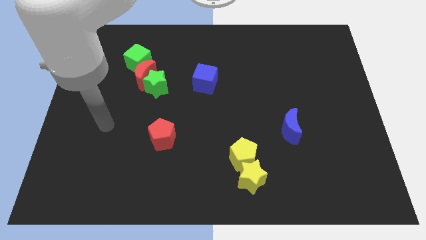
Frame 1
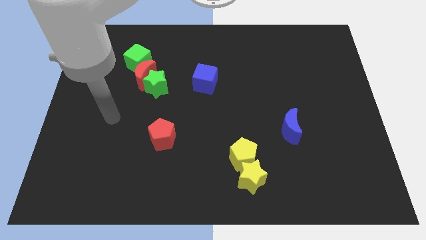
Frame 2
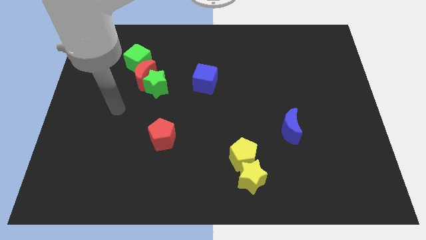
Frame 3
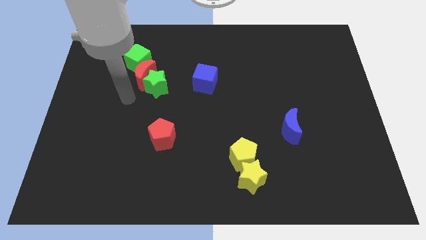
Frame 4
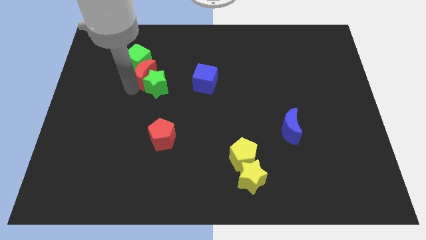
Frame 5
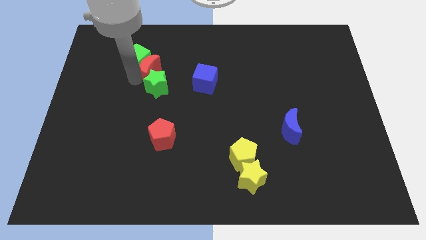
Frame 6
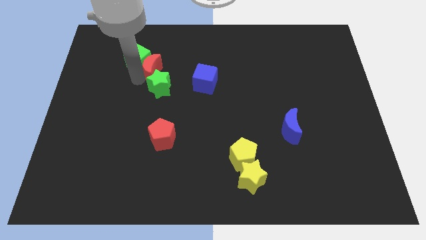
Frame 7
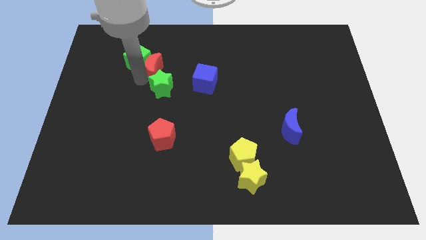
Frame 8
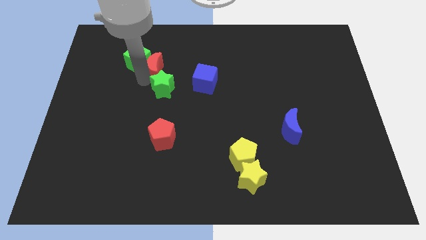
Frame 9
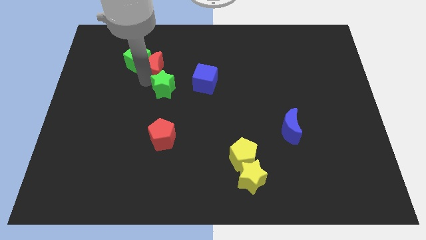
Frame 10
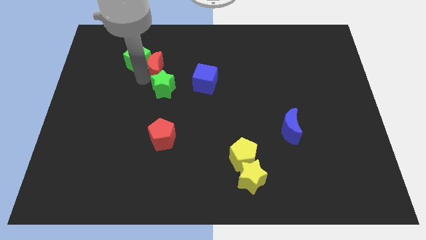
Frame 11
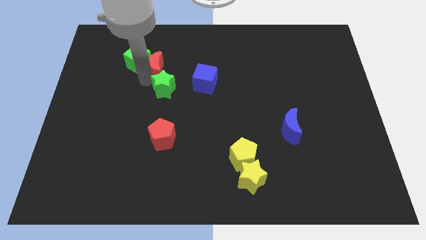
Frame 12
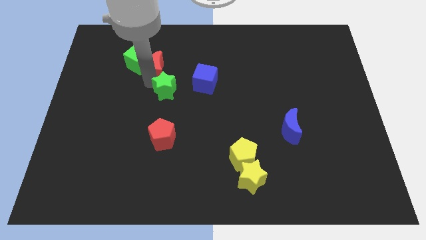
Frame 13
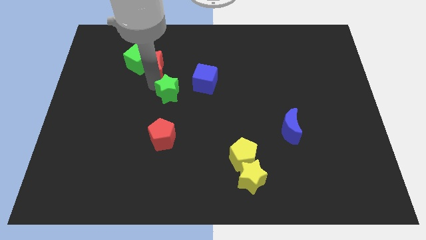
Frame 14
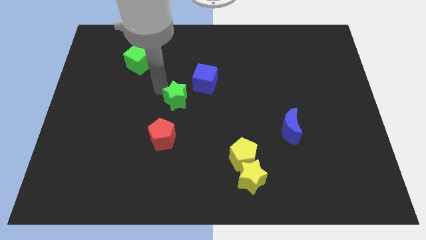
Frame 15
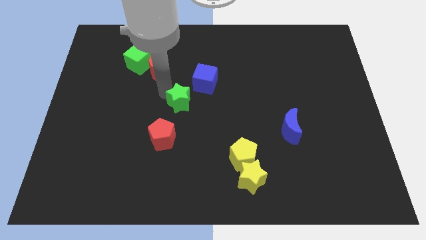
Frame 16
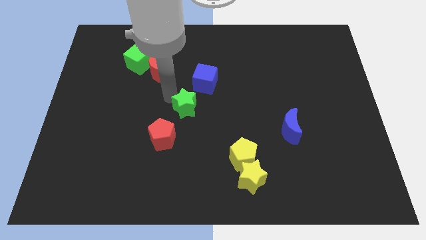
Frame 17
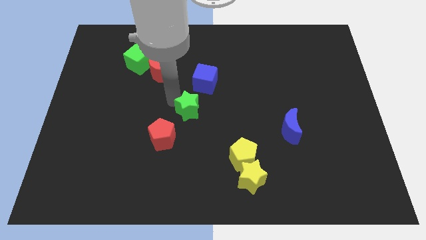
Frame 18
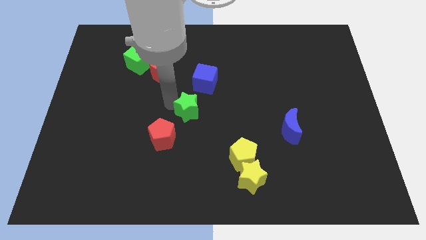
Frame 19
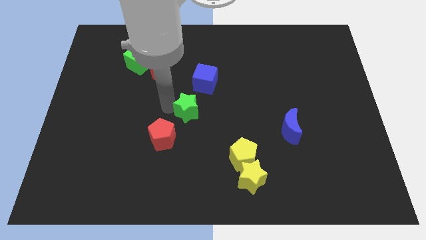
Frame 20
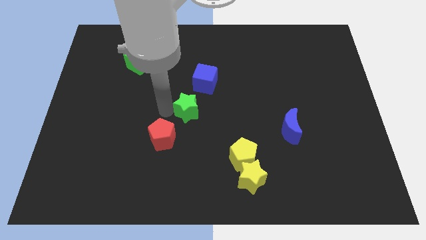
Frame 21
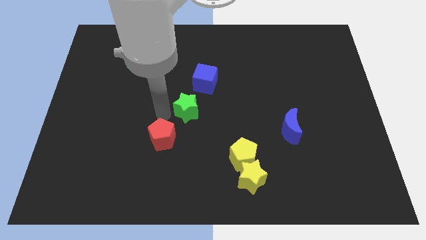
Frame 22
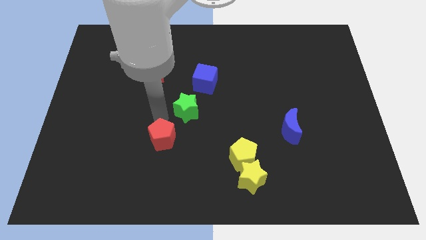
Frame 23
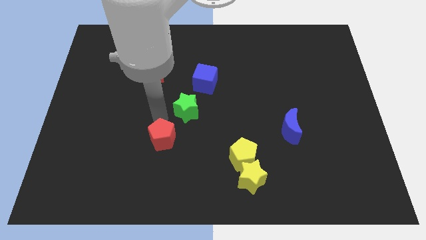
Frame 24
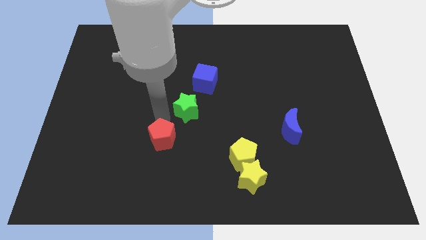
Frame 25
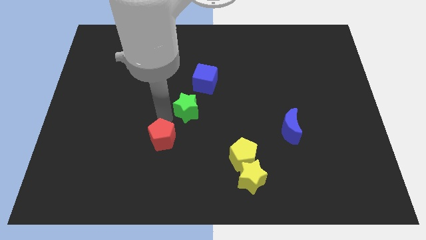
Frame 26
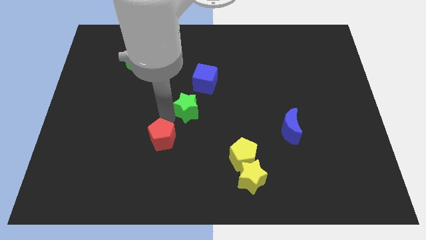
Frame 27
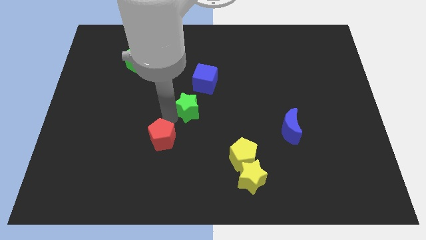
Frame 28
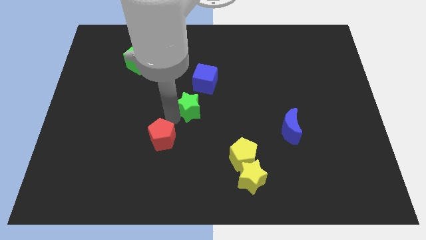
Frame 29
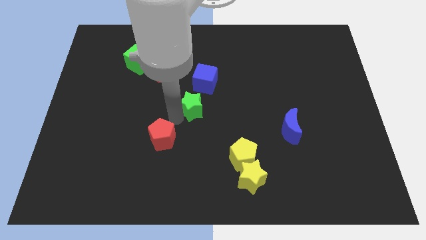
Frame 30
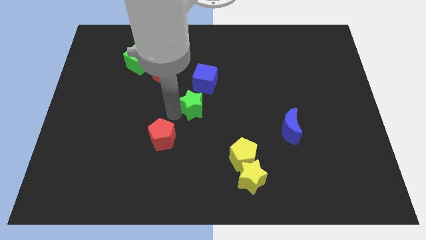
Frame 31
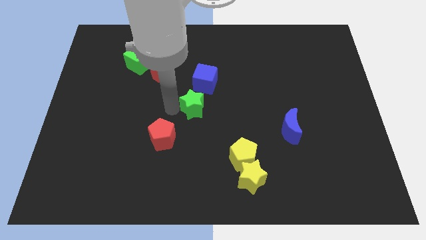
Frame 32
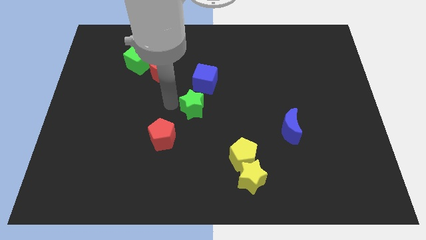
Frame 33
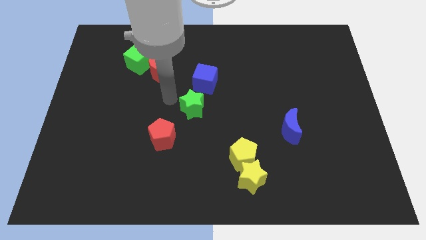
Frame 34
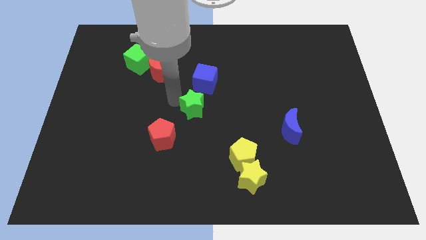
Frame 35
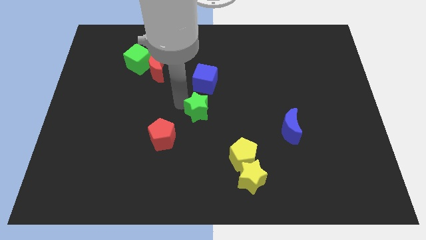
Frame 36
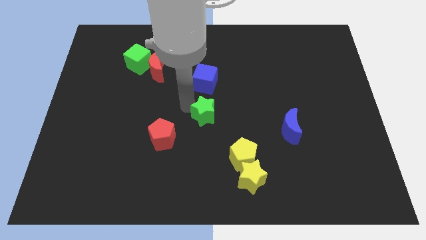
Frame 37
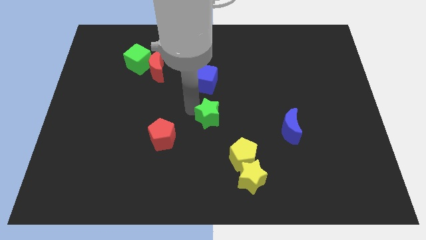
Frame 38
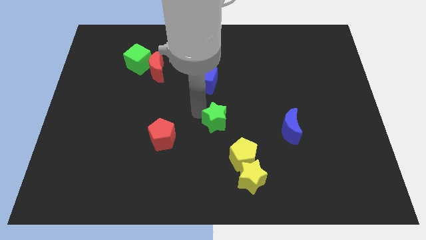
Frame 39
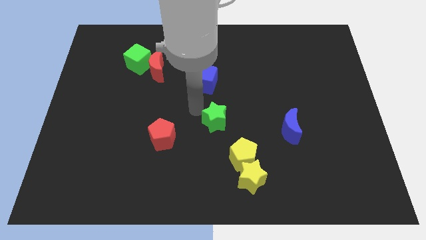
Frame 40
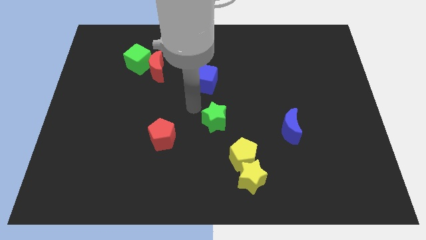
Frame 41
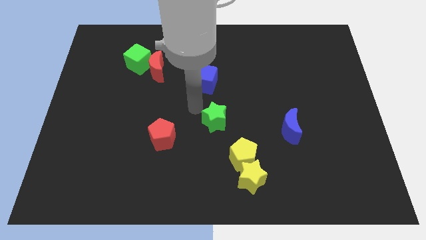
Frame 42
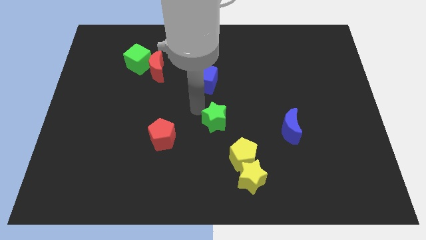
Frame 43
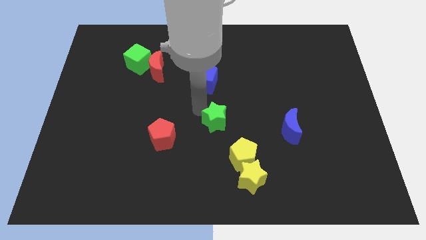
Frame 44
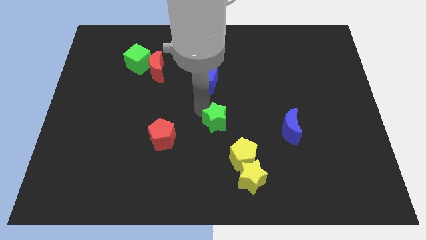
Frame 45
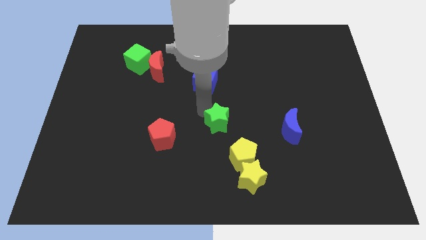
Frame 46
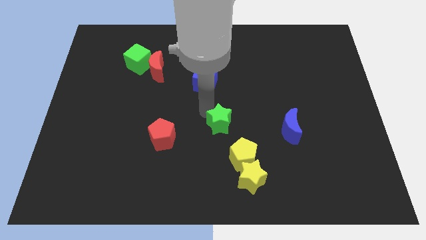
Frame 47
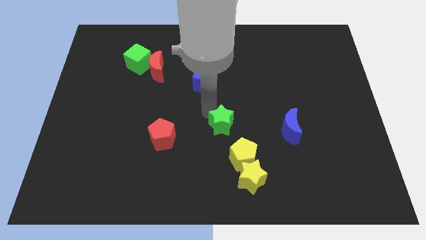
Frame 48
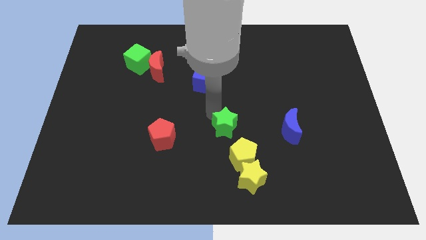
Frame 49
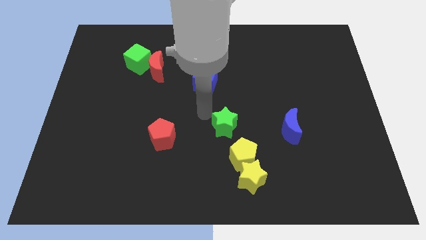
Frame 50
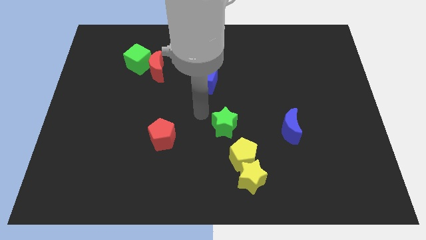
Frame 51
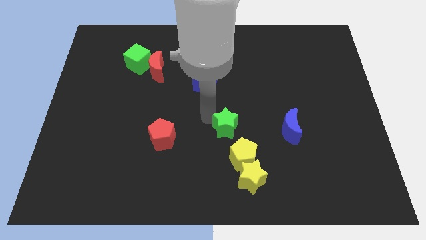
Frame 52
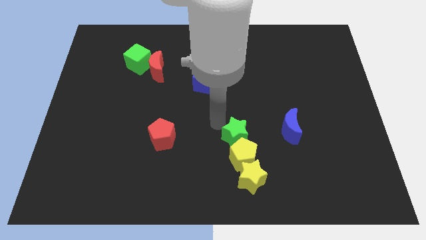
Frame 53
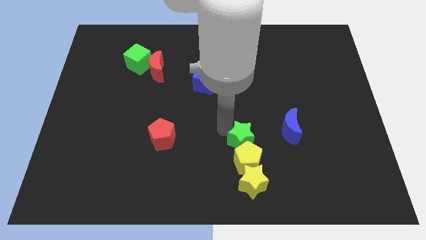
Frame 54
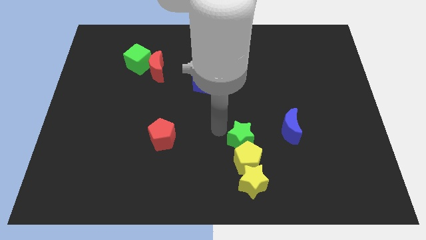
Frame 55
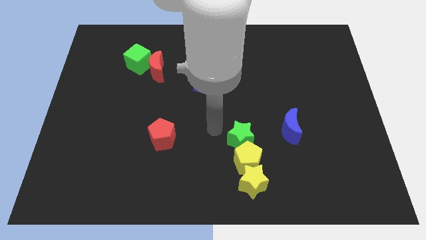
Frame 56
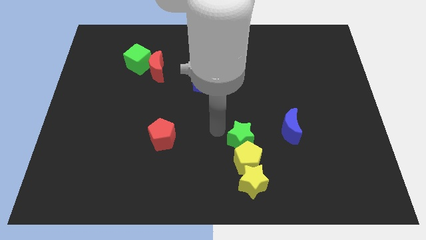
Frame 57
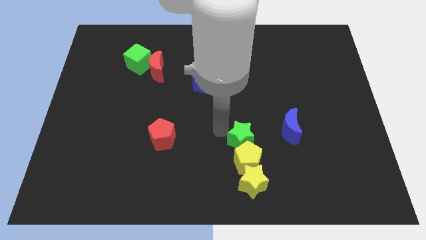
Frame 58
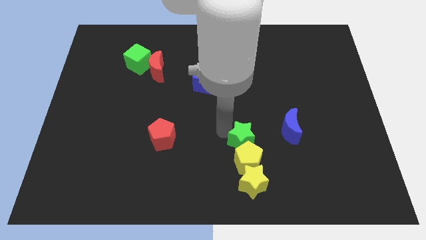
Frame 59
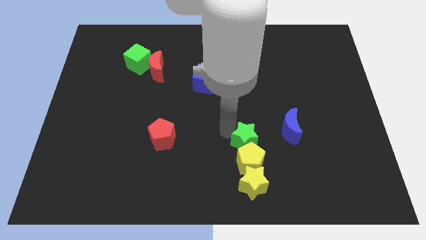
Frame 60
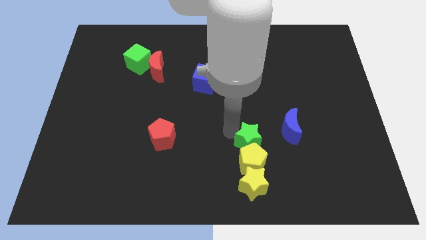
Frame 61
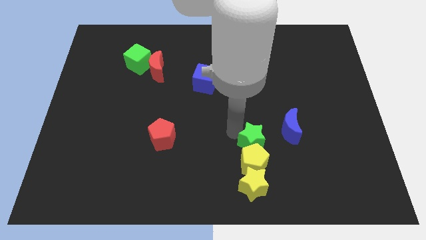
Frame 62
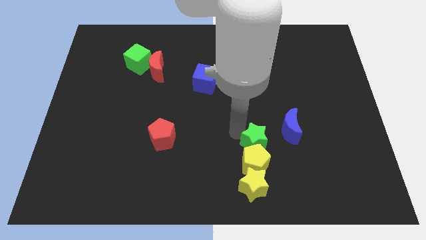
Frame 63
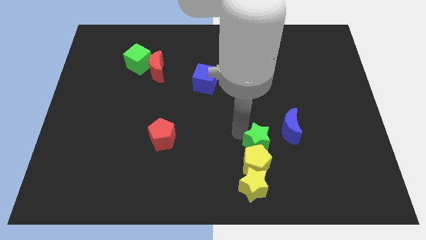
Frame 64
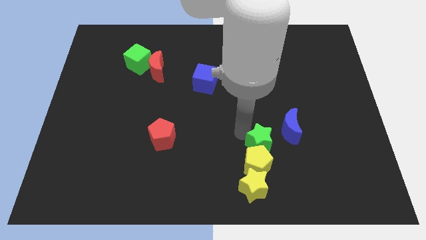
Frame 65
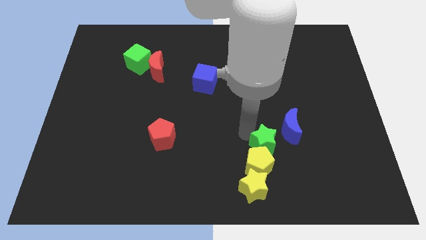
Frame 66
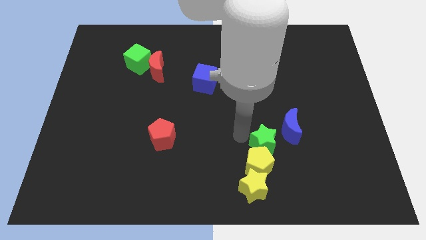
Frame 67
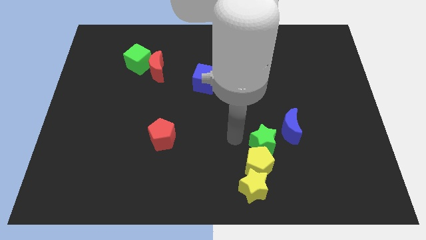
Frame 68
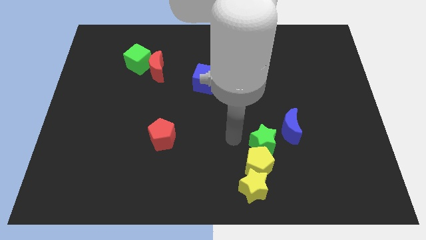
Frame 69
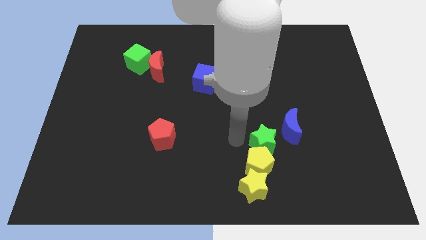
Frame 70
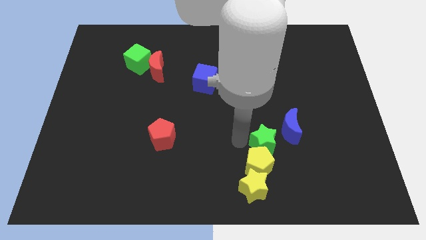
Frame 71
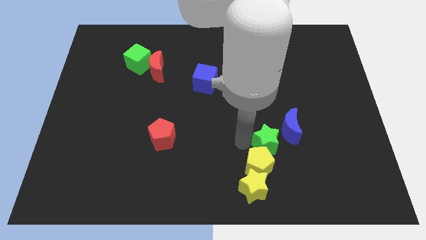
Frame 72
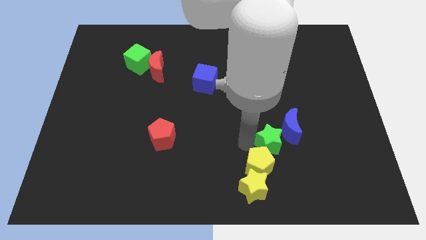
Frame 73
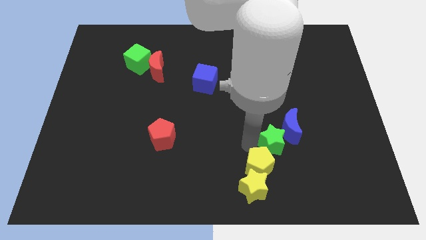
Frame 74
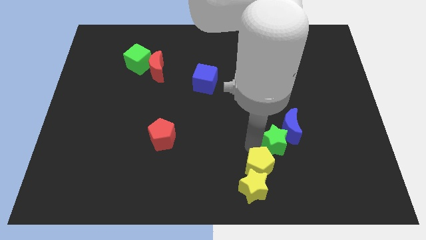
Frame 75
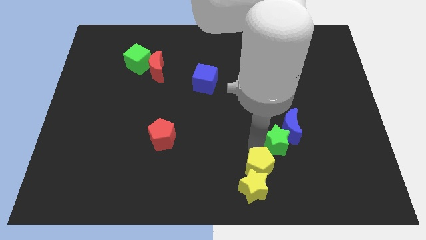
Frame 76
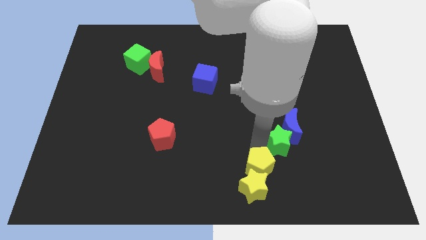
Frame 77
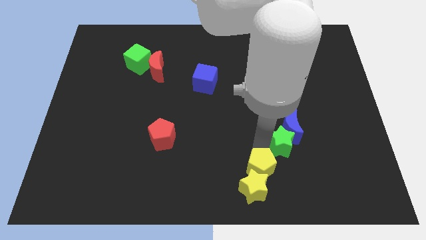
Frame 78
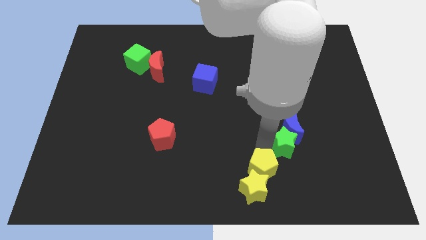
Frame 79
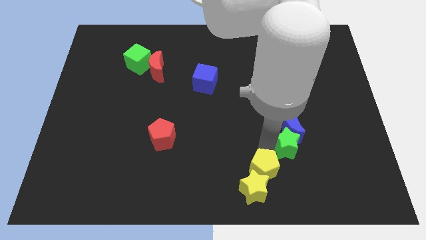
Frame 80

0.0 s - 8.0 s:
push the green star to the bottom right of the blue moon
